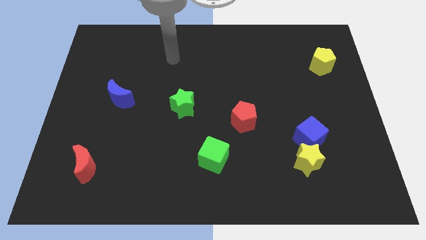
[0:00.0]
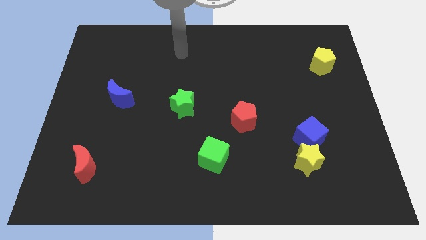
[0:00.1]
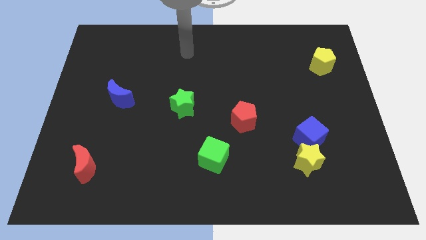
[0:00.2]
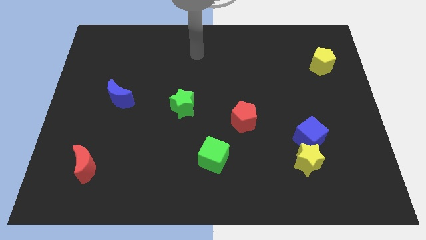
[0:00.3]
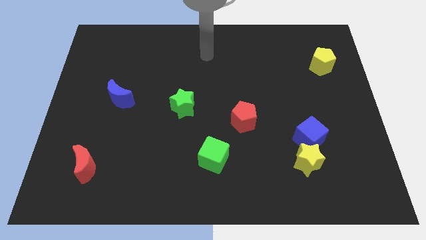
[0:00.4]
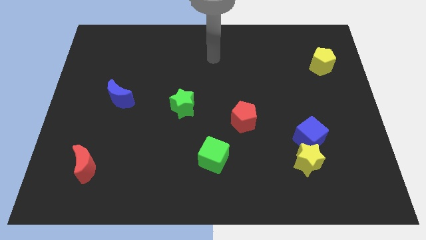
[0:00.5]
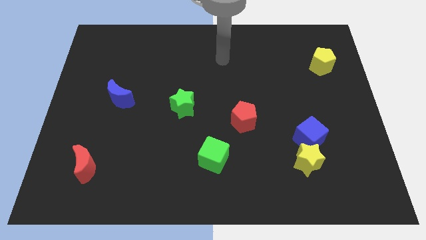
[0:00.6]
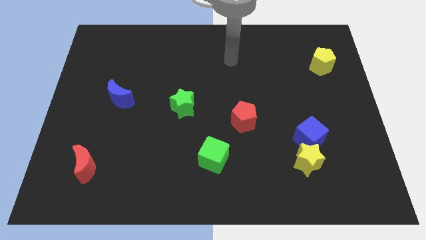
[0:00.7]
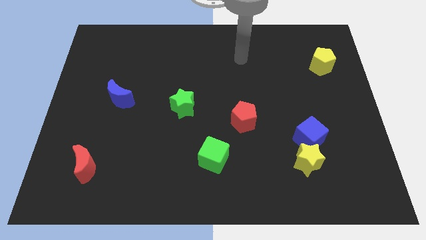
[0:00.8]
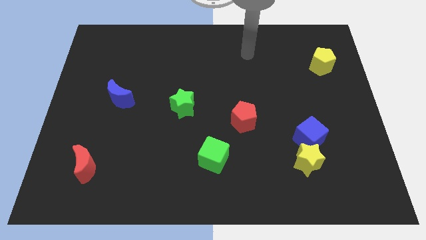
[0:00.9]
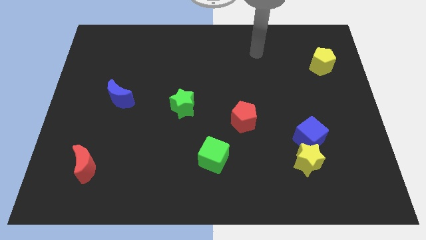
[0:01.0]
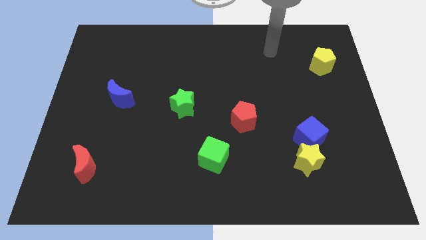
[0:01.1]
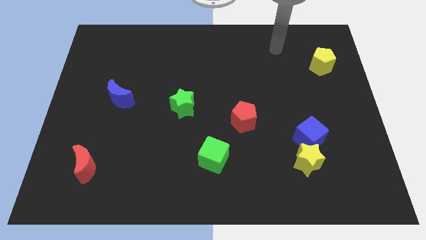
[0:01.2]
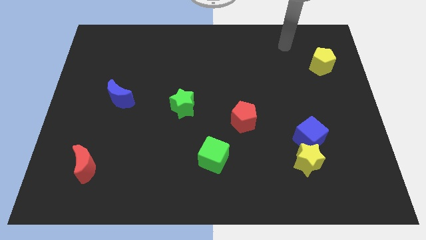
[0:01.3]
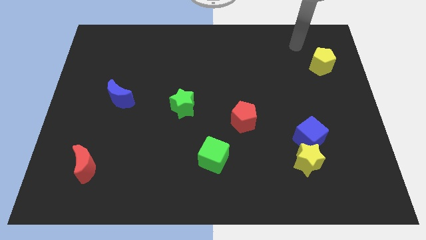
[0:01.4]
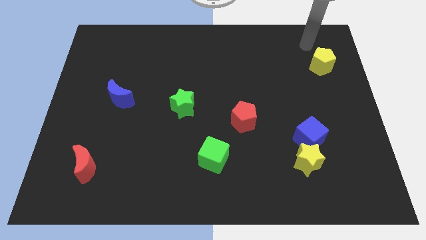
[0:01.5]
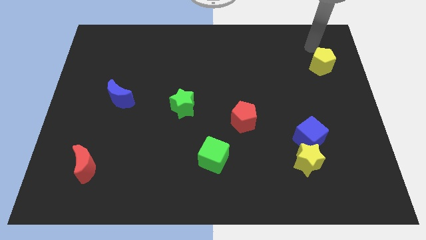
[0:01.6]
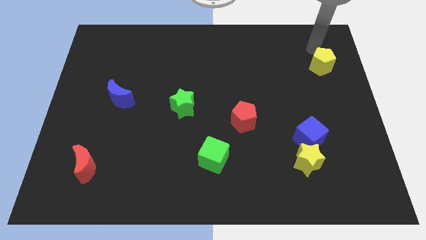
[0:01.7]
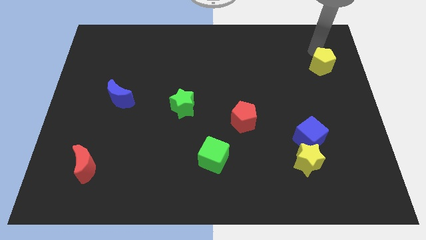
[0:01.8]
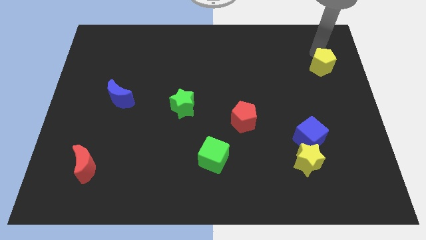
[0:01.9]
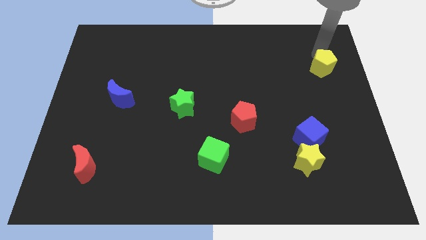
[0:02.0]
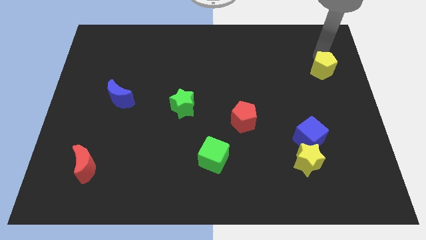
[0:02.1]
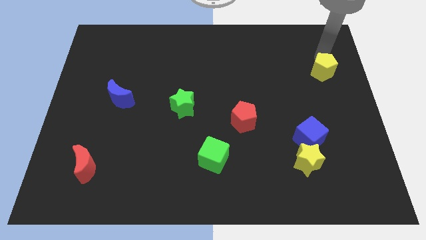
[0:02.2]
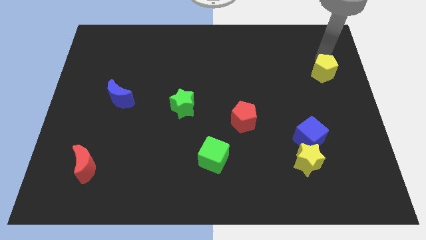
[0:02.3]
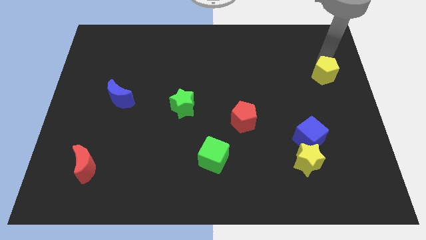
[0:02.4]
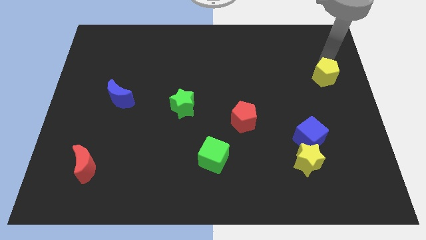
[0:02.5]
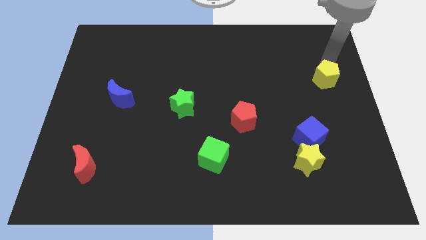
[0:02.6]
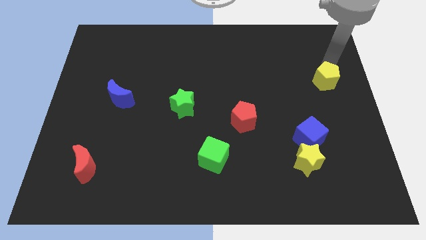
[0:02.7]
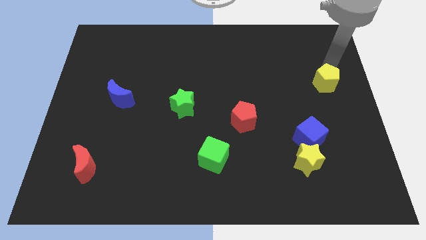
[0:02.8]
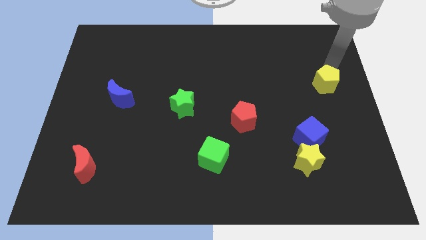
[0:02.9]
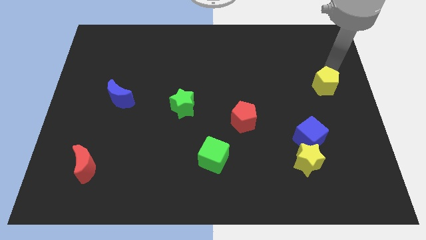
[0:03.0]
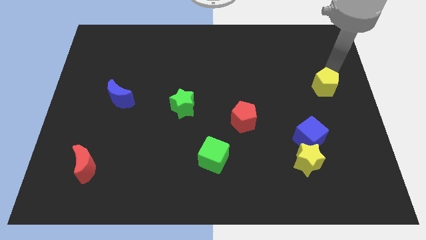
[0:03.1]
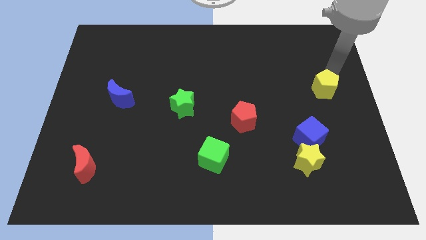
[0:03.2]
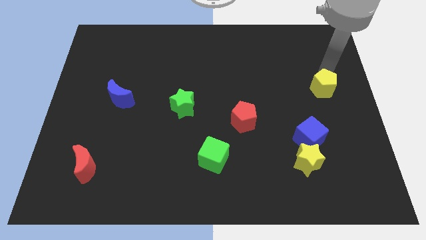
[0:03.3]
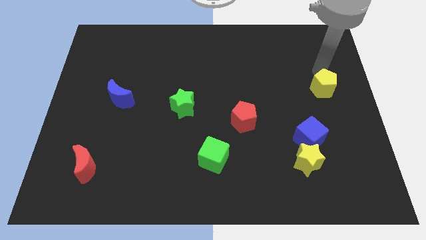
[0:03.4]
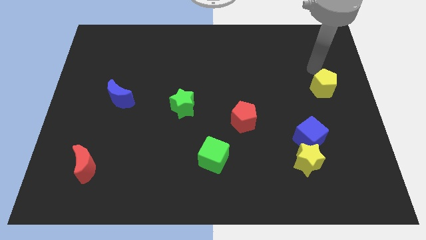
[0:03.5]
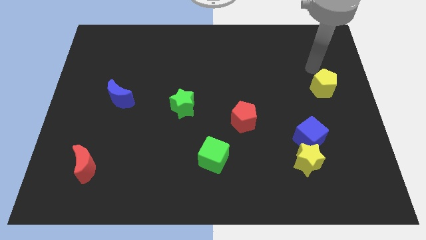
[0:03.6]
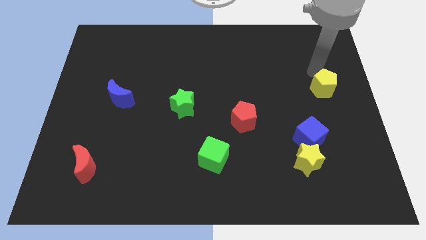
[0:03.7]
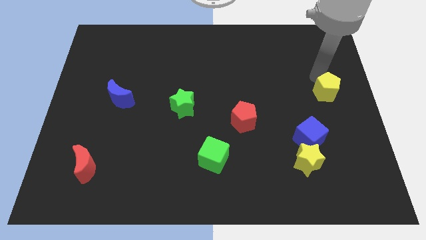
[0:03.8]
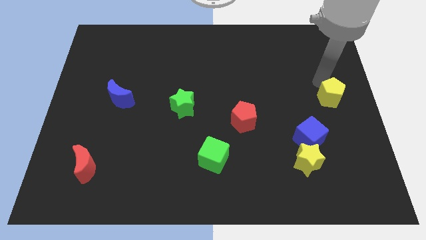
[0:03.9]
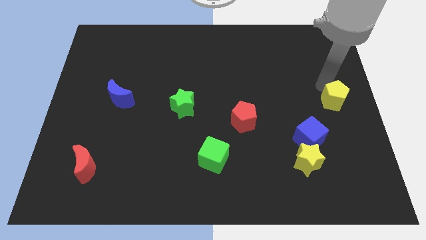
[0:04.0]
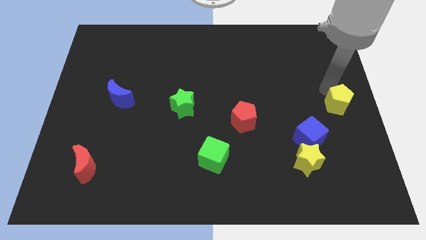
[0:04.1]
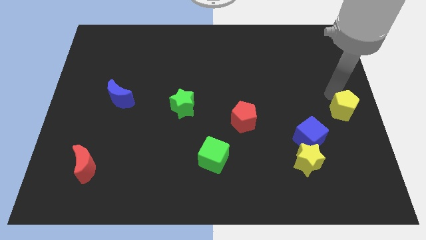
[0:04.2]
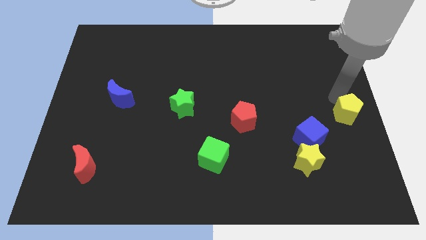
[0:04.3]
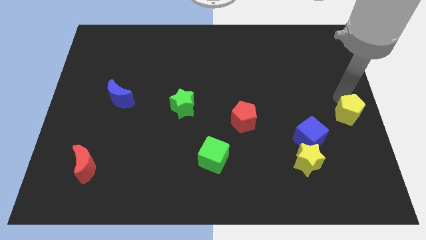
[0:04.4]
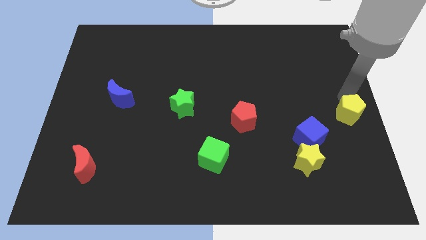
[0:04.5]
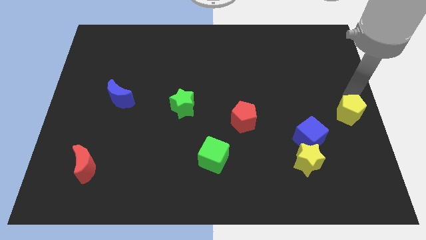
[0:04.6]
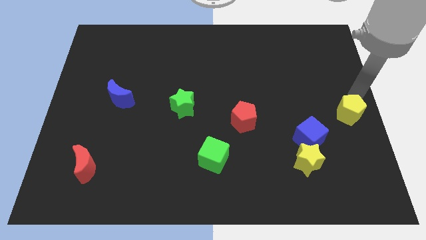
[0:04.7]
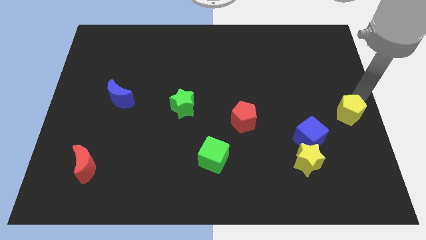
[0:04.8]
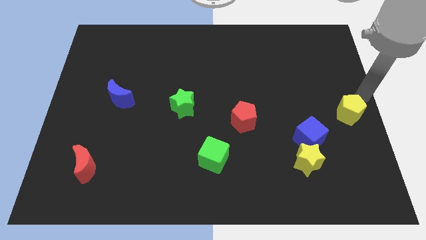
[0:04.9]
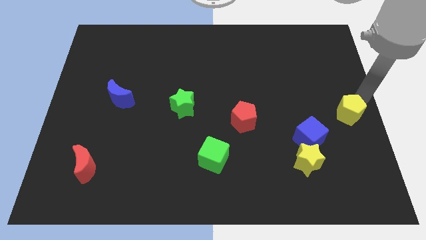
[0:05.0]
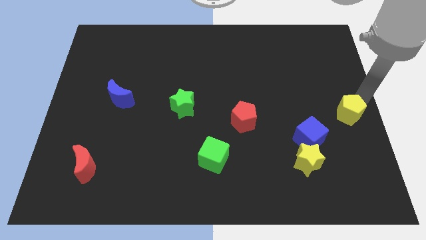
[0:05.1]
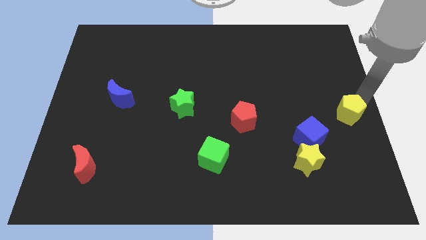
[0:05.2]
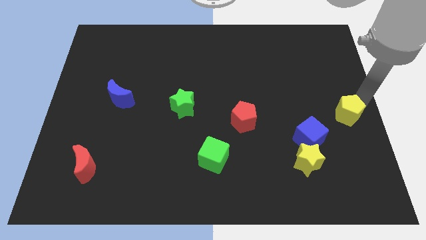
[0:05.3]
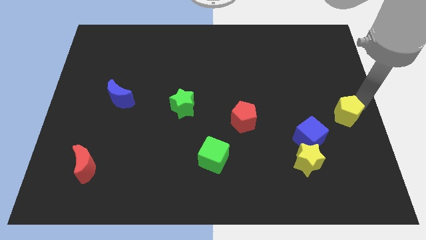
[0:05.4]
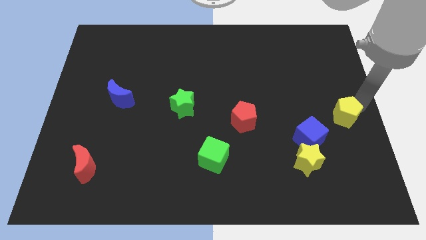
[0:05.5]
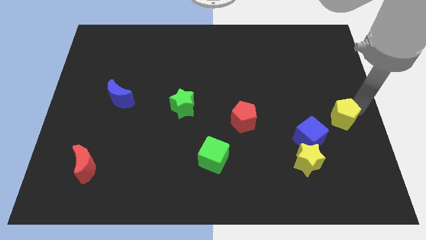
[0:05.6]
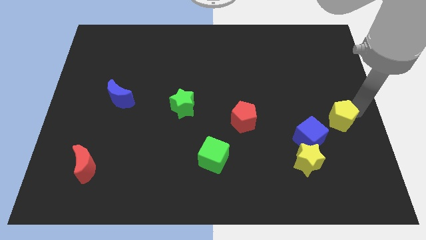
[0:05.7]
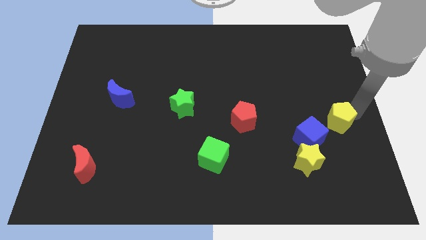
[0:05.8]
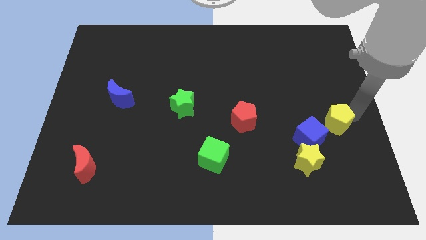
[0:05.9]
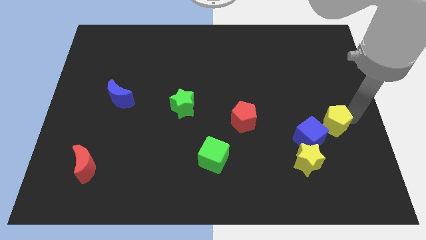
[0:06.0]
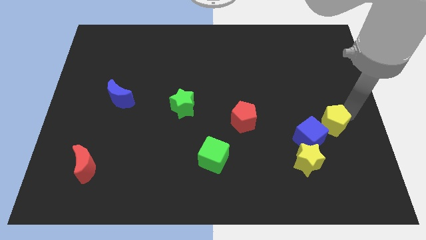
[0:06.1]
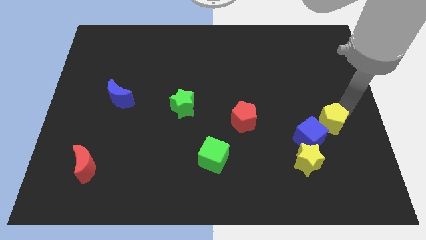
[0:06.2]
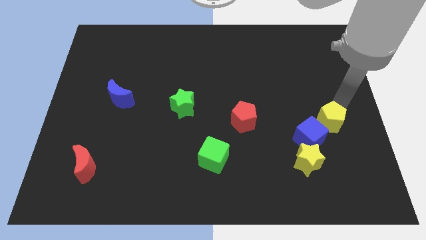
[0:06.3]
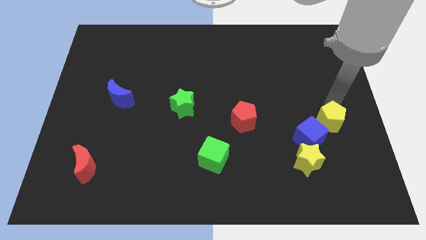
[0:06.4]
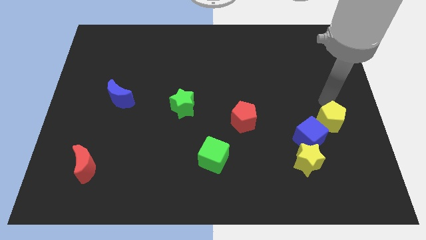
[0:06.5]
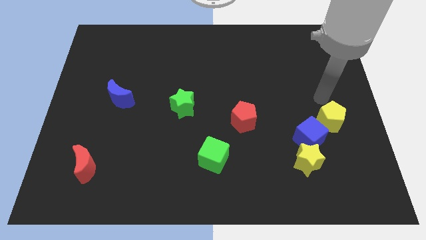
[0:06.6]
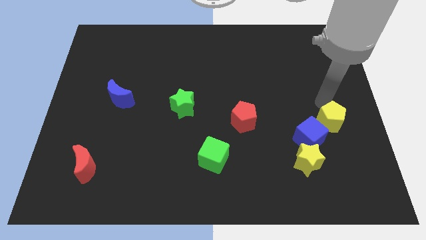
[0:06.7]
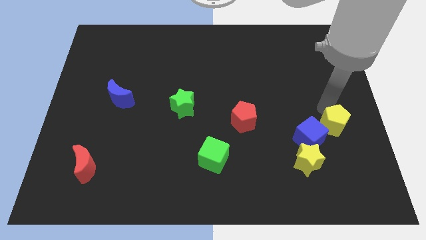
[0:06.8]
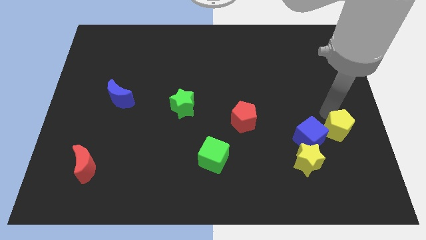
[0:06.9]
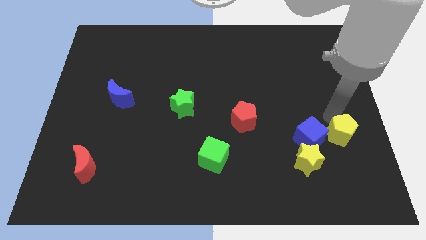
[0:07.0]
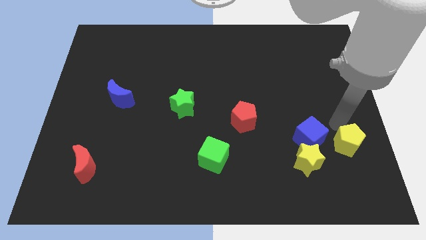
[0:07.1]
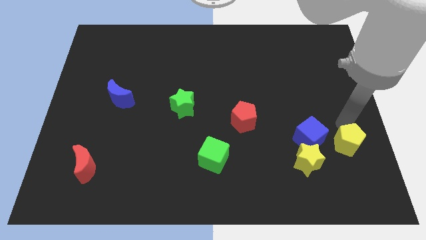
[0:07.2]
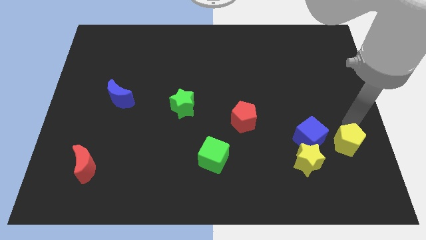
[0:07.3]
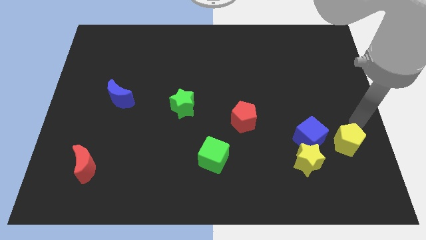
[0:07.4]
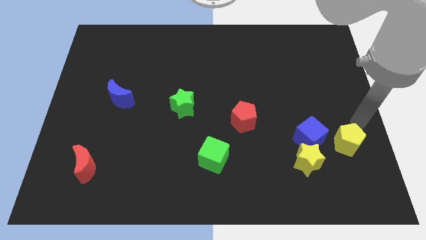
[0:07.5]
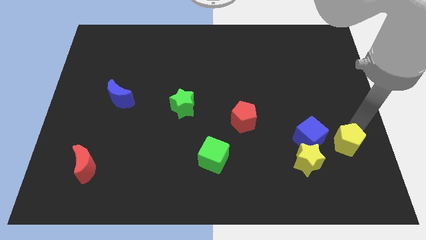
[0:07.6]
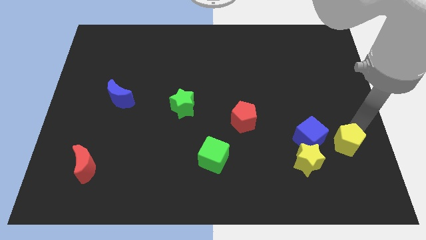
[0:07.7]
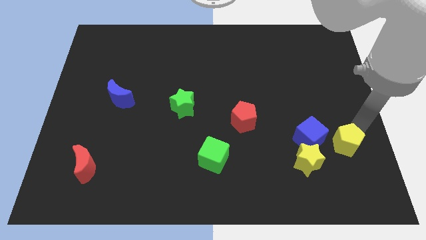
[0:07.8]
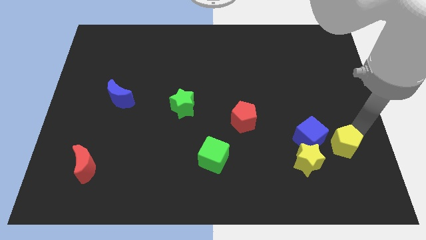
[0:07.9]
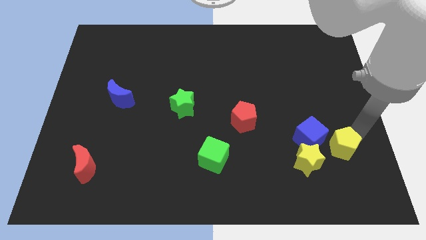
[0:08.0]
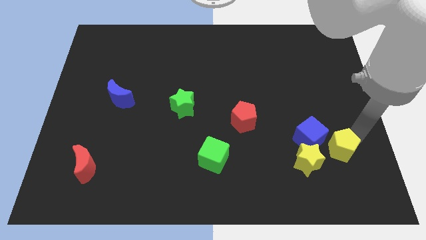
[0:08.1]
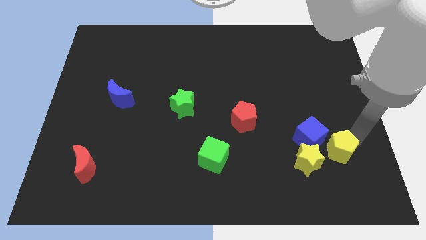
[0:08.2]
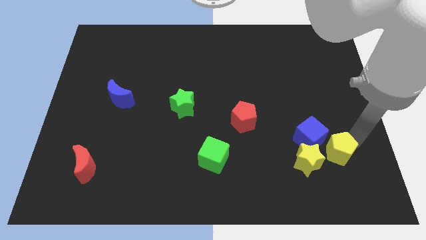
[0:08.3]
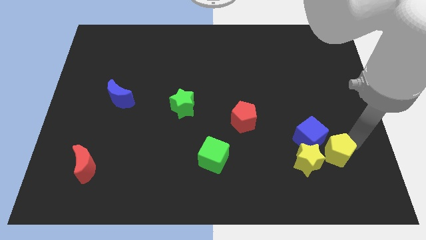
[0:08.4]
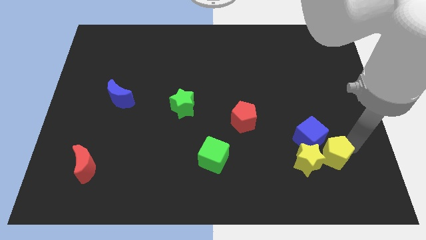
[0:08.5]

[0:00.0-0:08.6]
push the yellow pentagon to the bottom side of the blue cube
